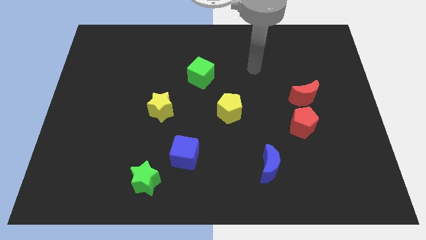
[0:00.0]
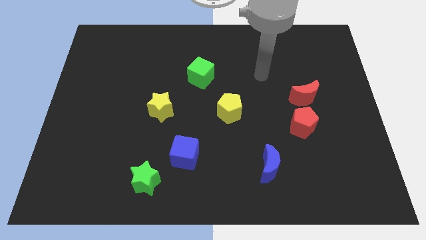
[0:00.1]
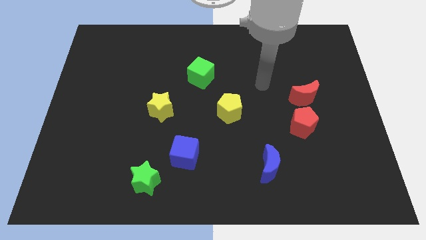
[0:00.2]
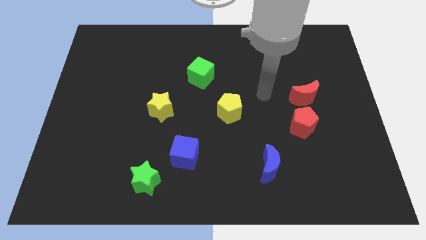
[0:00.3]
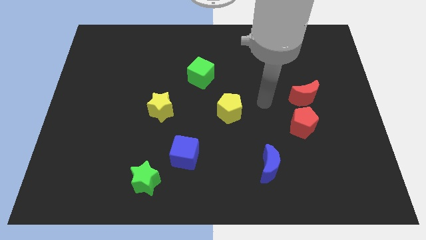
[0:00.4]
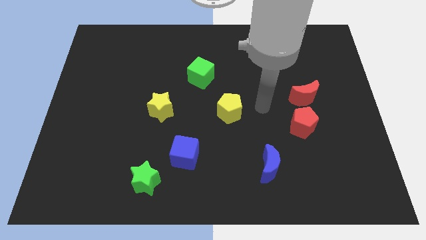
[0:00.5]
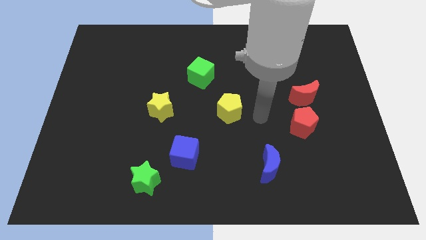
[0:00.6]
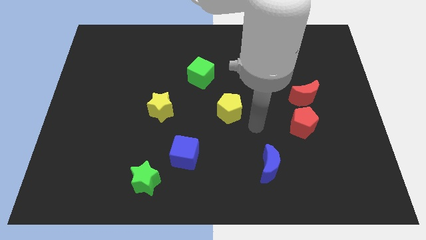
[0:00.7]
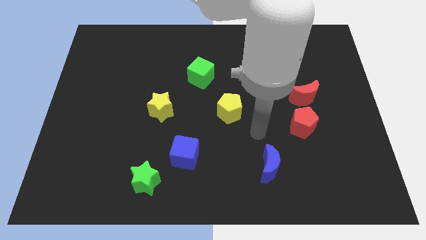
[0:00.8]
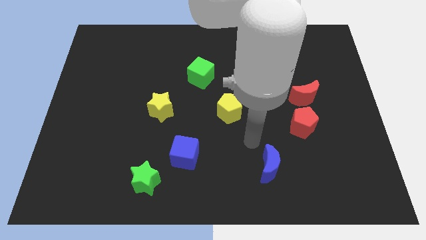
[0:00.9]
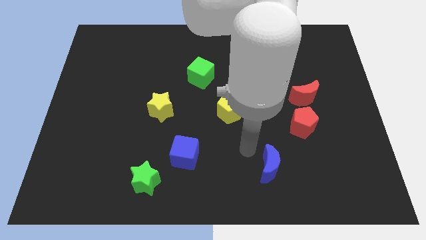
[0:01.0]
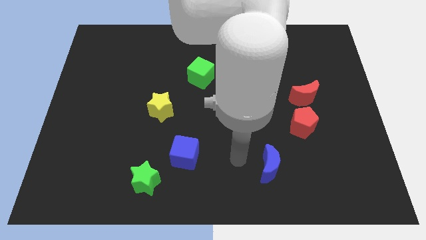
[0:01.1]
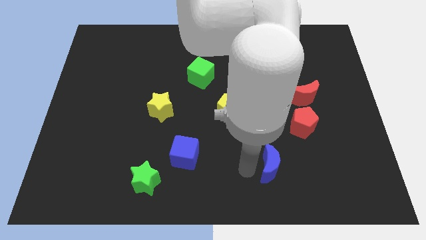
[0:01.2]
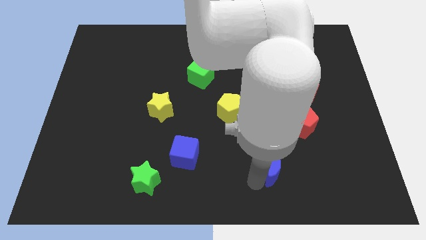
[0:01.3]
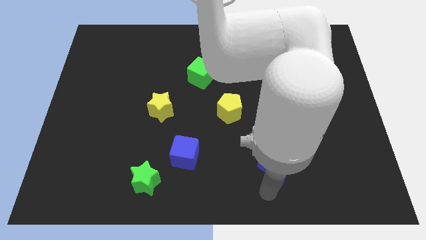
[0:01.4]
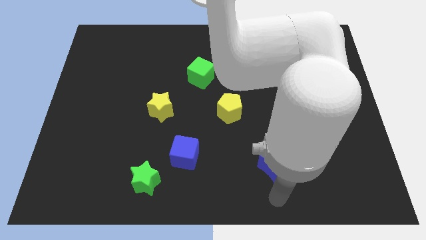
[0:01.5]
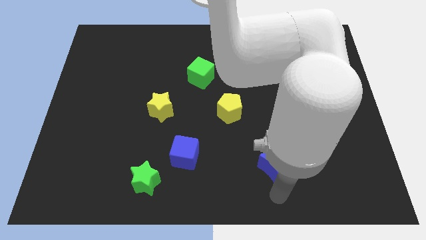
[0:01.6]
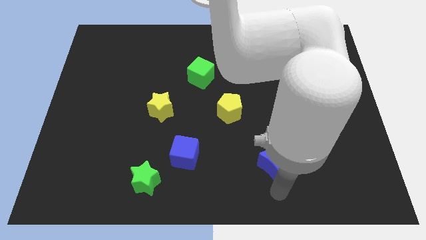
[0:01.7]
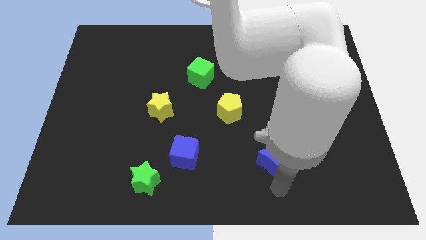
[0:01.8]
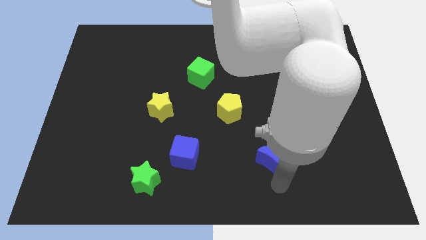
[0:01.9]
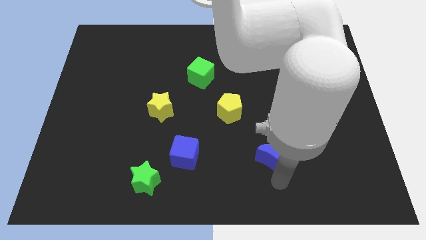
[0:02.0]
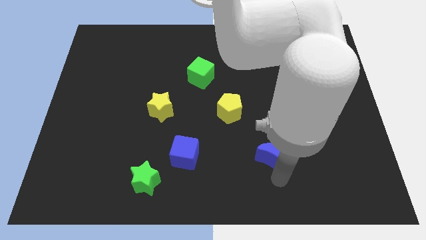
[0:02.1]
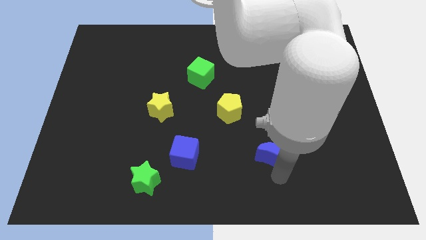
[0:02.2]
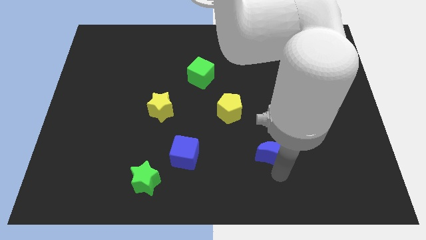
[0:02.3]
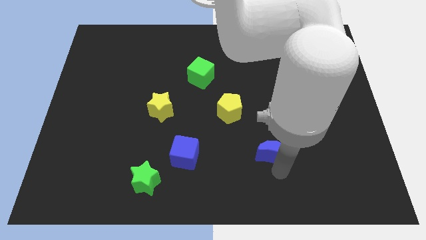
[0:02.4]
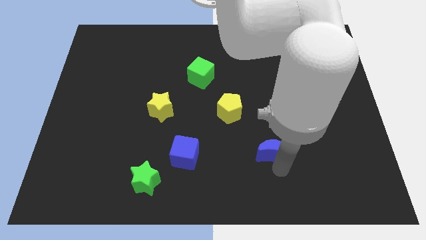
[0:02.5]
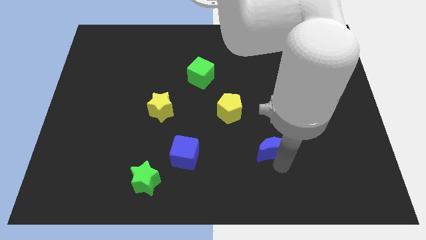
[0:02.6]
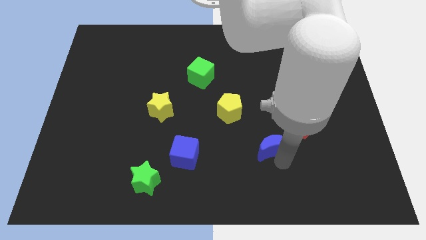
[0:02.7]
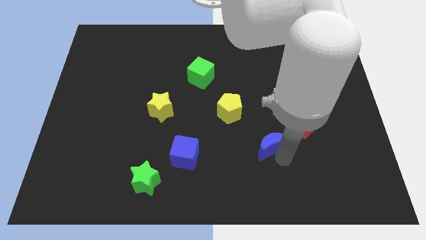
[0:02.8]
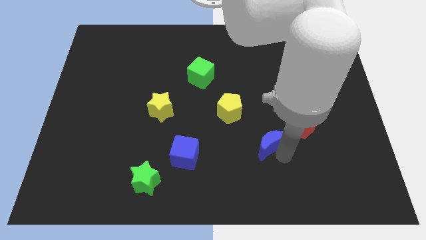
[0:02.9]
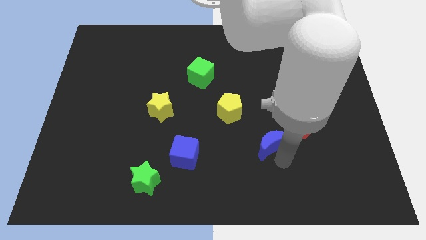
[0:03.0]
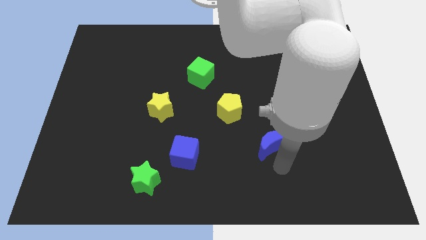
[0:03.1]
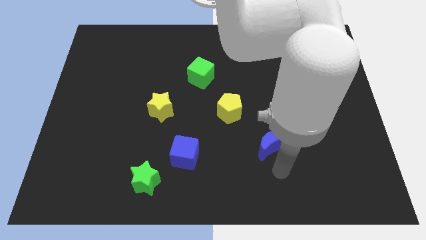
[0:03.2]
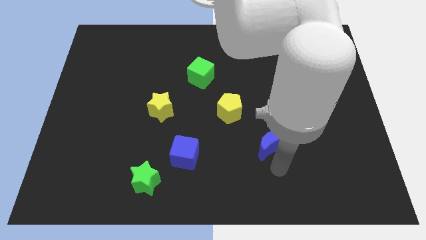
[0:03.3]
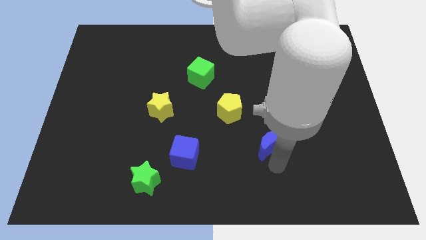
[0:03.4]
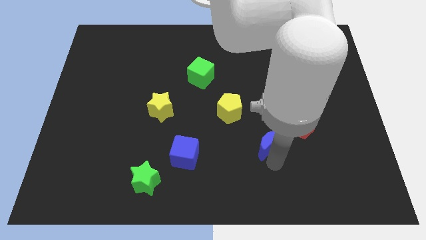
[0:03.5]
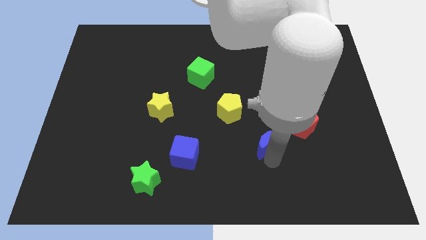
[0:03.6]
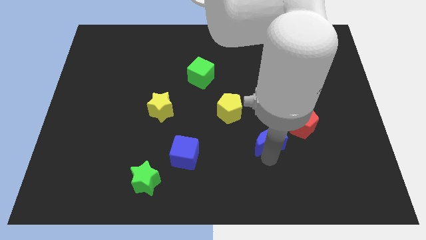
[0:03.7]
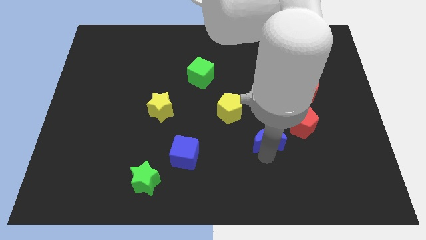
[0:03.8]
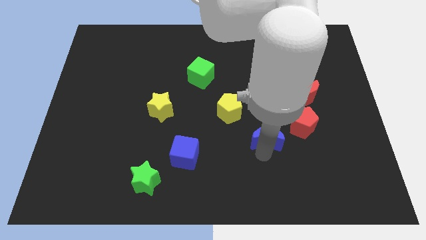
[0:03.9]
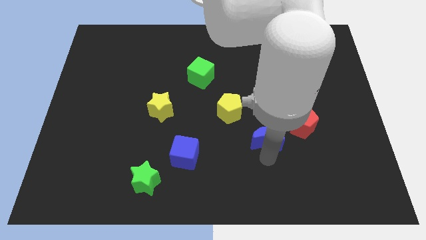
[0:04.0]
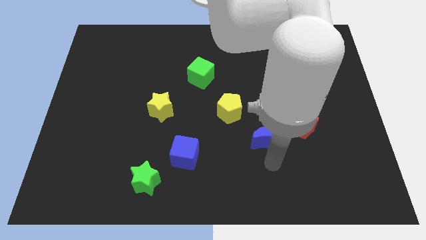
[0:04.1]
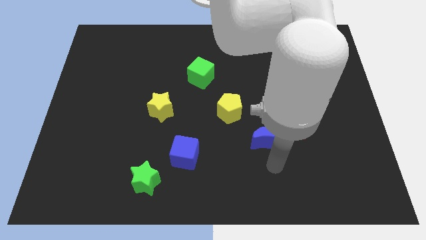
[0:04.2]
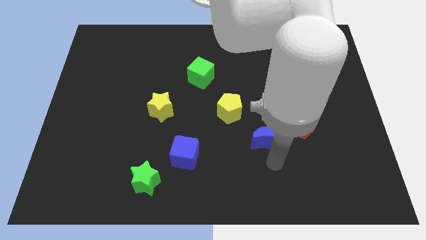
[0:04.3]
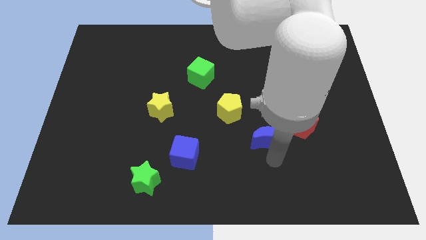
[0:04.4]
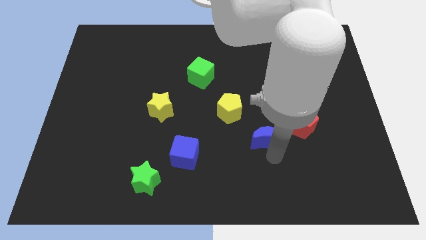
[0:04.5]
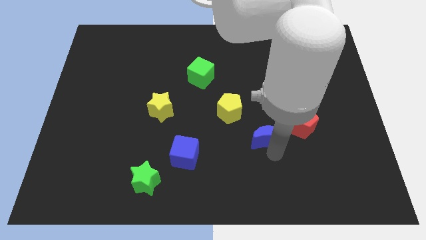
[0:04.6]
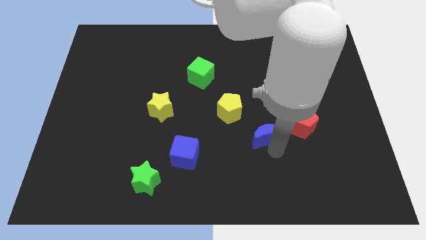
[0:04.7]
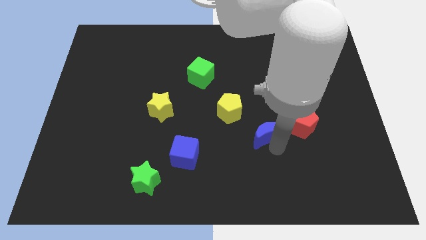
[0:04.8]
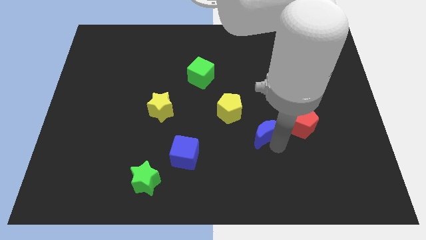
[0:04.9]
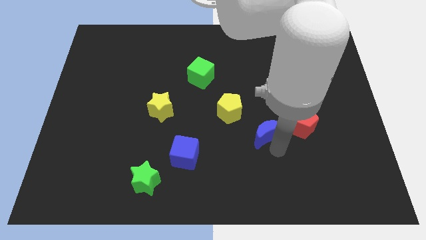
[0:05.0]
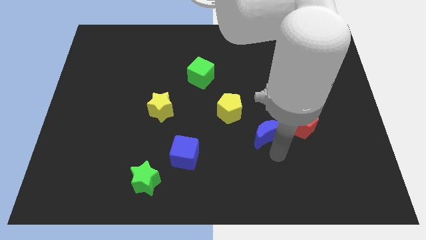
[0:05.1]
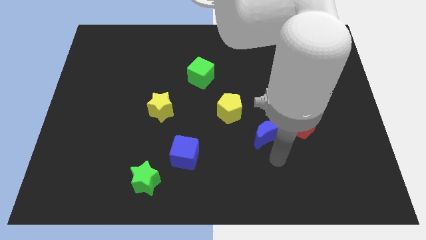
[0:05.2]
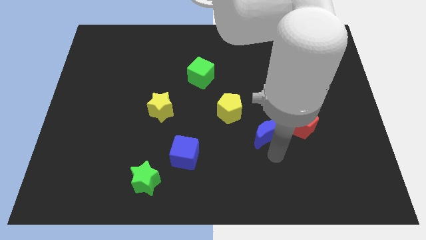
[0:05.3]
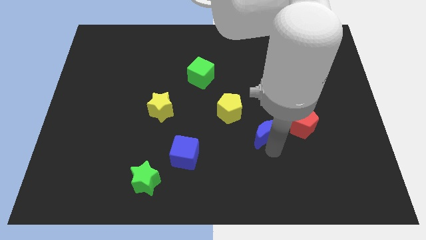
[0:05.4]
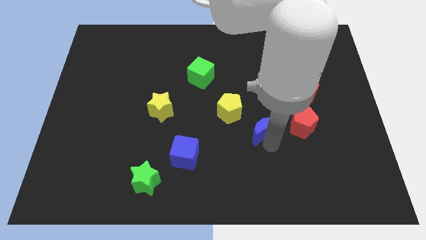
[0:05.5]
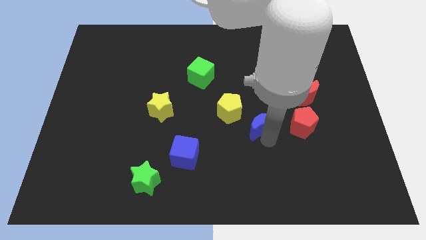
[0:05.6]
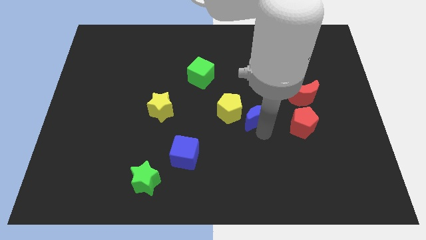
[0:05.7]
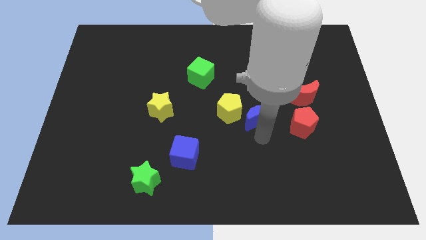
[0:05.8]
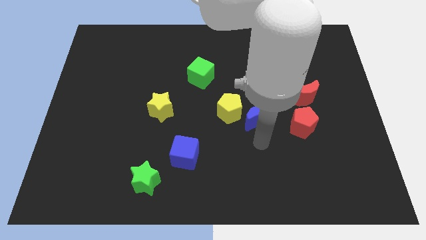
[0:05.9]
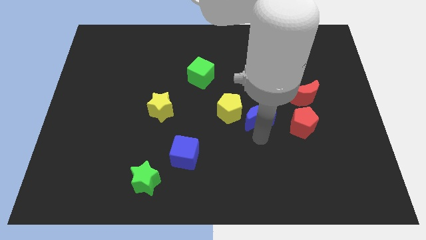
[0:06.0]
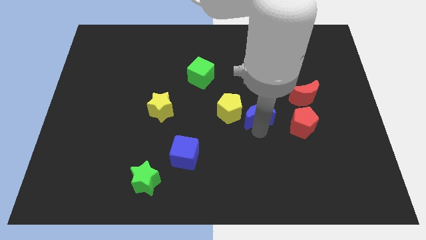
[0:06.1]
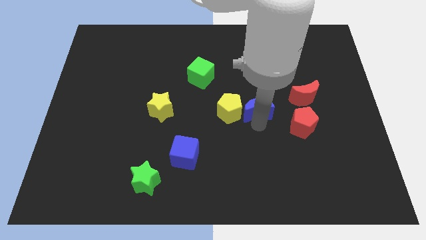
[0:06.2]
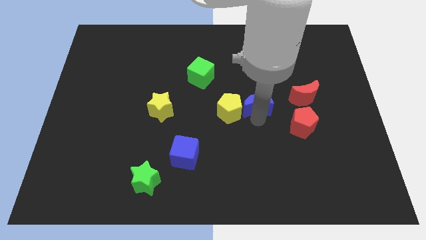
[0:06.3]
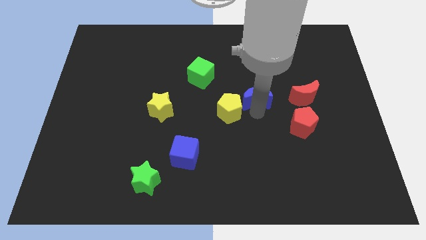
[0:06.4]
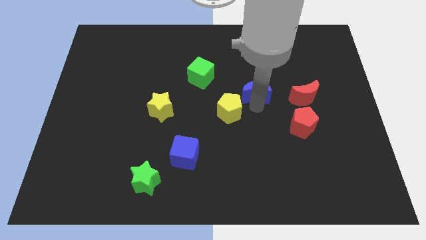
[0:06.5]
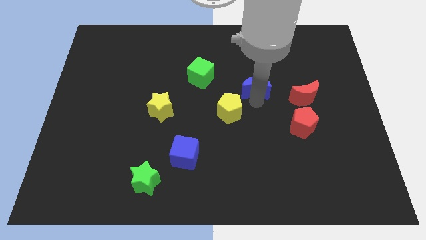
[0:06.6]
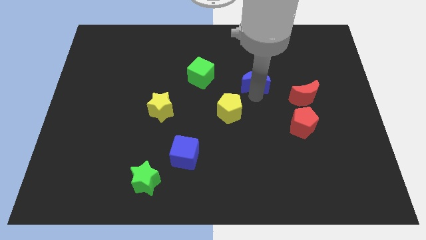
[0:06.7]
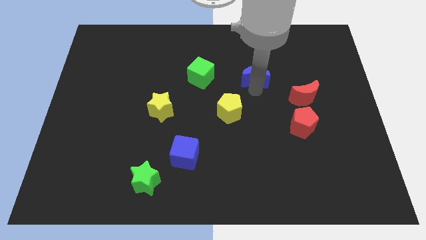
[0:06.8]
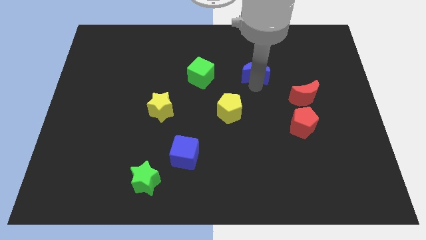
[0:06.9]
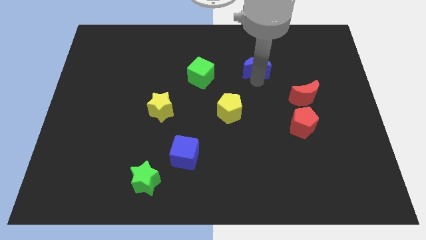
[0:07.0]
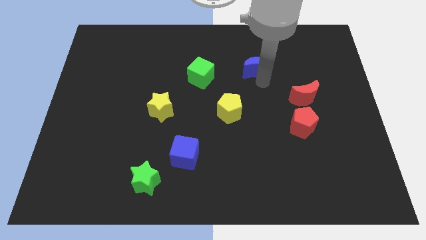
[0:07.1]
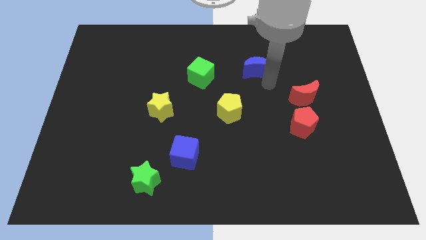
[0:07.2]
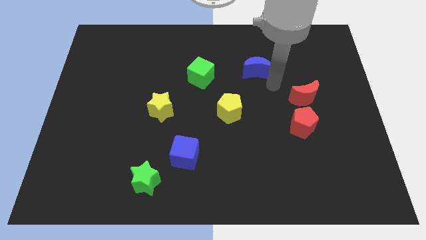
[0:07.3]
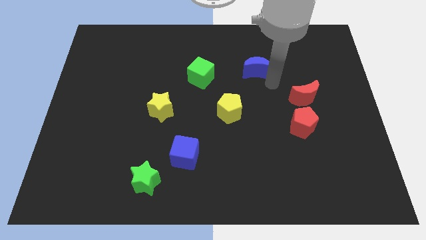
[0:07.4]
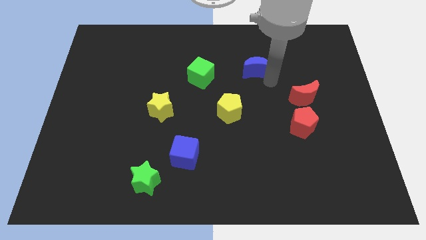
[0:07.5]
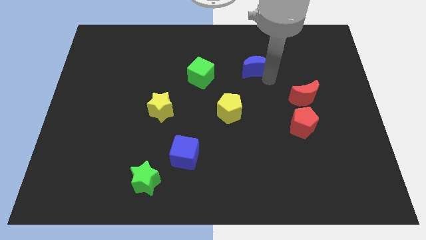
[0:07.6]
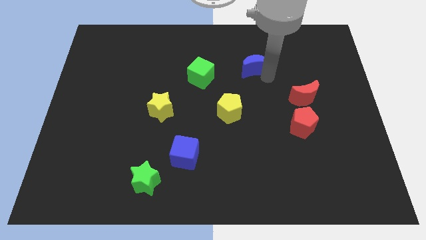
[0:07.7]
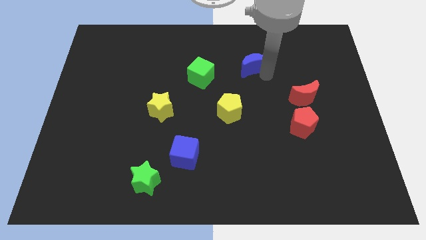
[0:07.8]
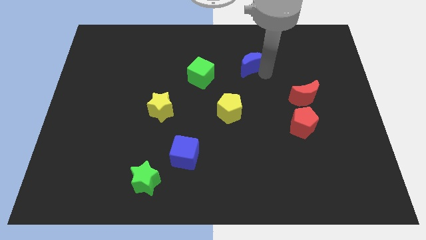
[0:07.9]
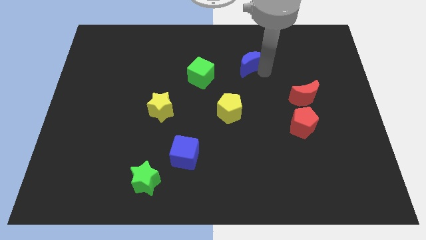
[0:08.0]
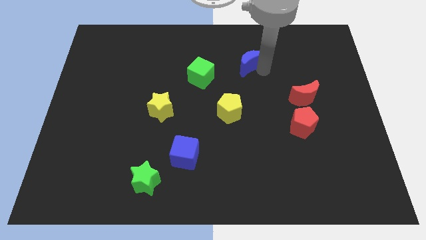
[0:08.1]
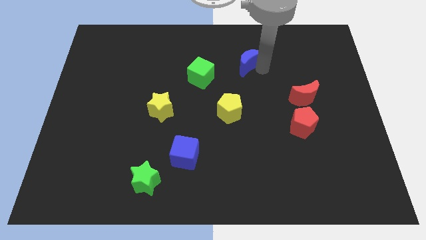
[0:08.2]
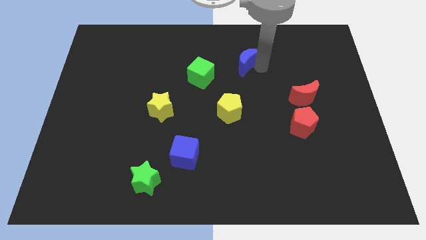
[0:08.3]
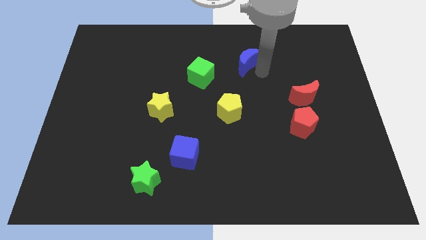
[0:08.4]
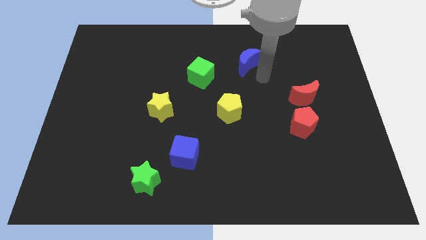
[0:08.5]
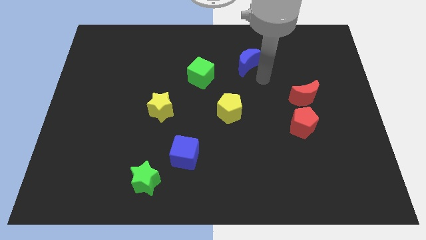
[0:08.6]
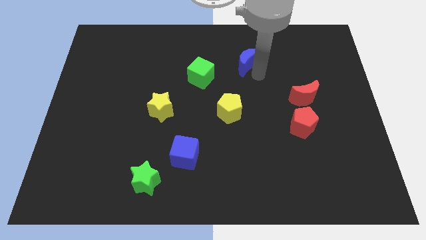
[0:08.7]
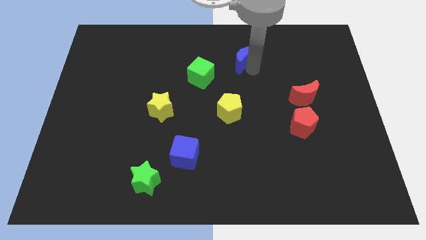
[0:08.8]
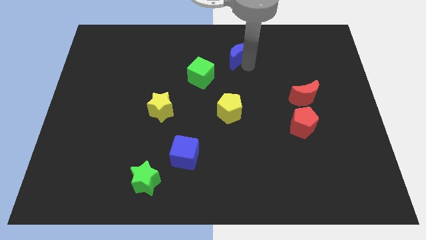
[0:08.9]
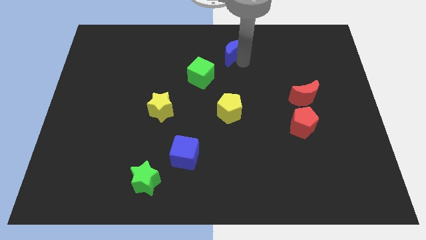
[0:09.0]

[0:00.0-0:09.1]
move the blue moon to the top side
